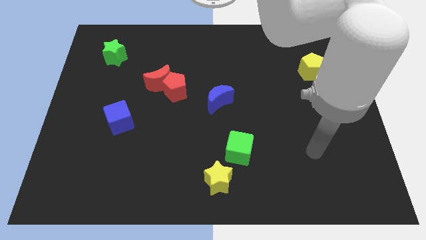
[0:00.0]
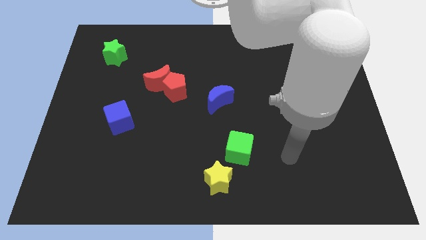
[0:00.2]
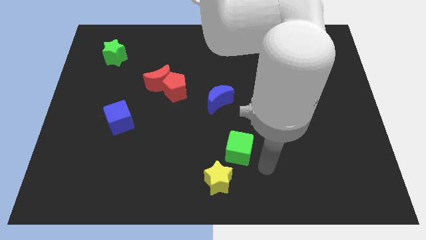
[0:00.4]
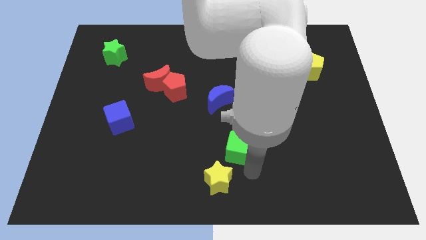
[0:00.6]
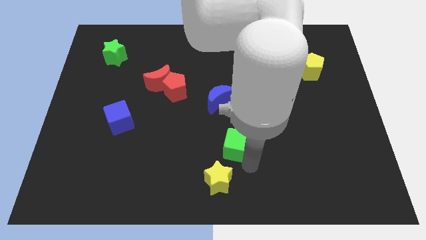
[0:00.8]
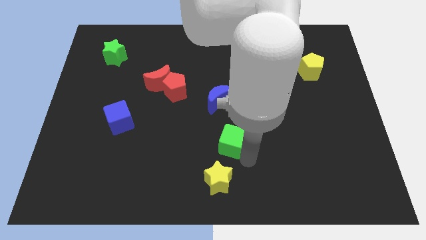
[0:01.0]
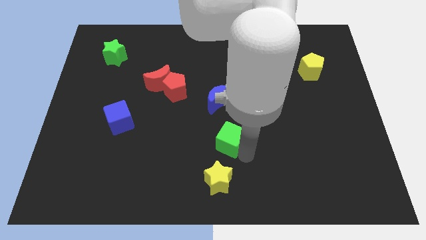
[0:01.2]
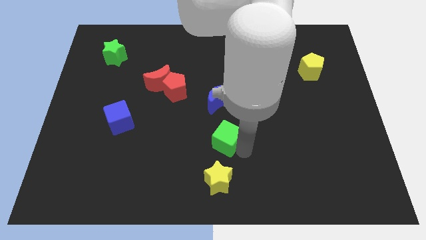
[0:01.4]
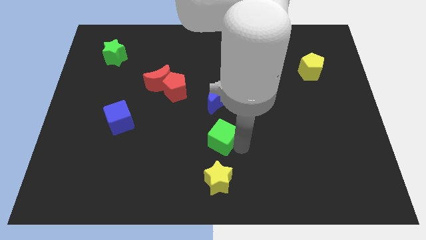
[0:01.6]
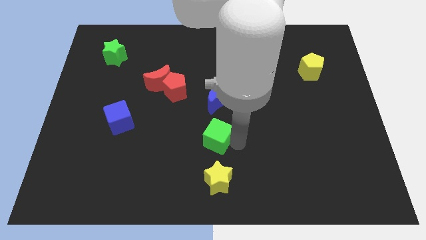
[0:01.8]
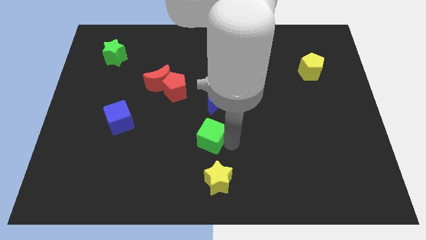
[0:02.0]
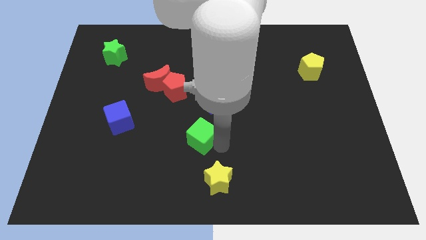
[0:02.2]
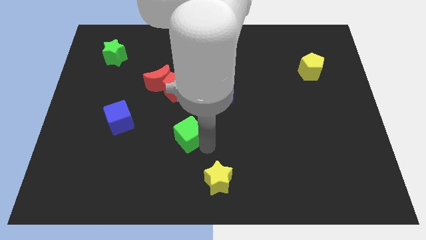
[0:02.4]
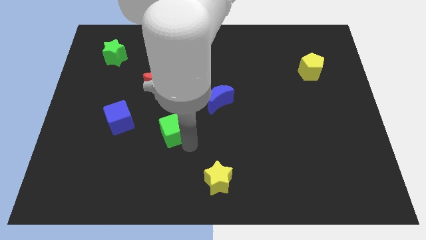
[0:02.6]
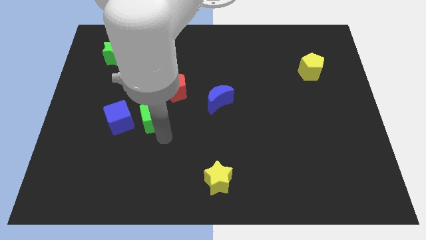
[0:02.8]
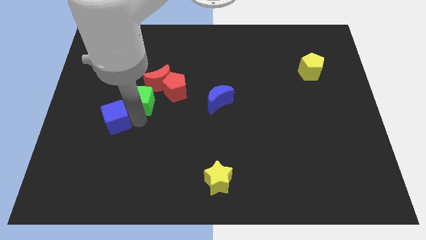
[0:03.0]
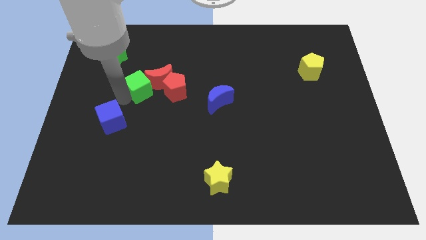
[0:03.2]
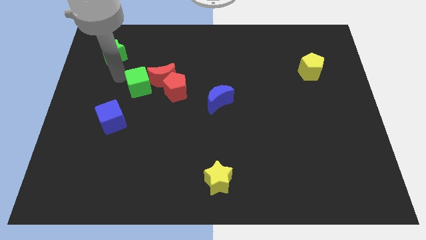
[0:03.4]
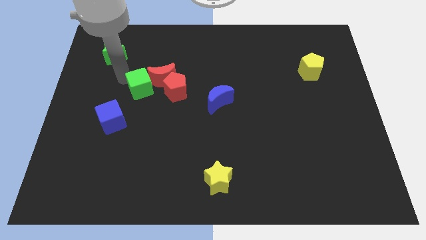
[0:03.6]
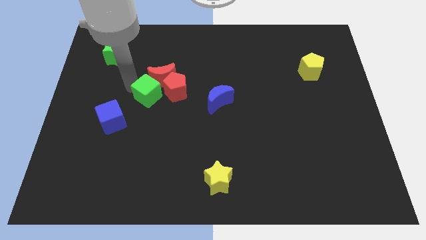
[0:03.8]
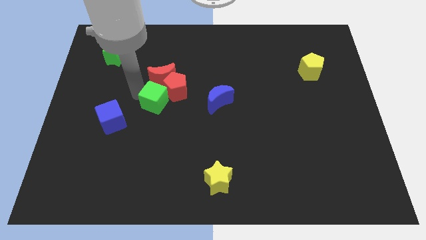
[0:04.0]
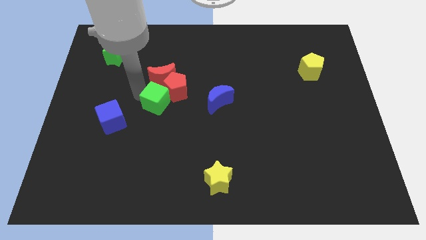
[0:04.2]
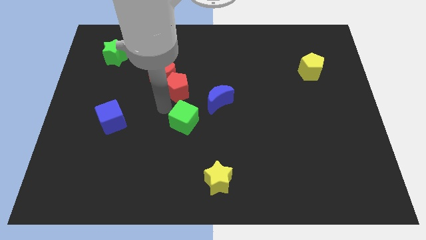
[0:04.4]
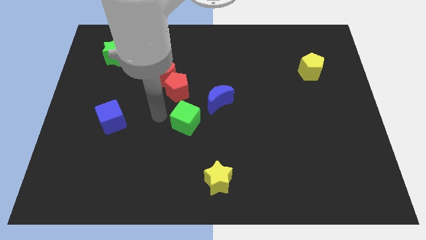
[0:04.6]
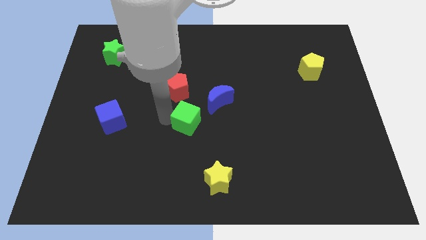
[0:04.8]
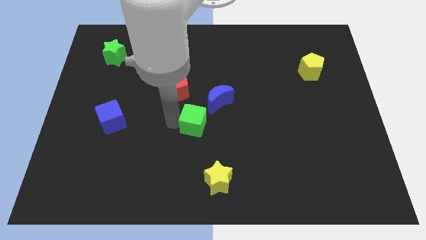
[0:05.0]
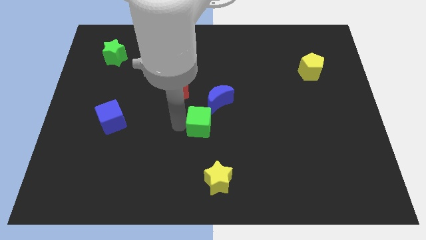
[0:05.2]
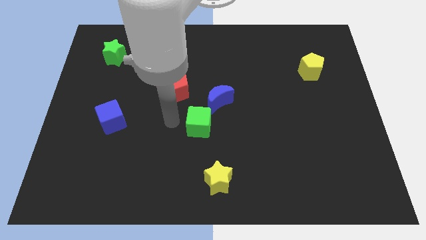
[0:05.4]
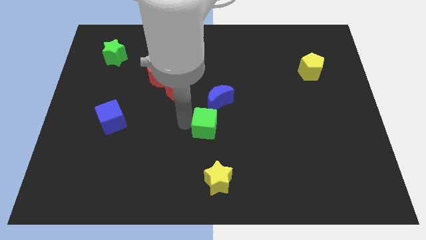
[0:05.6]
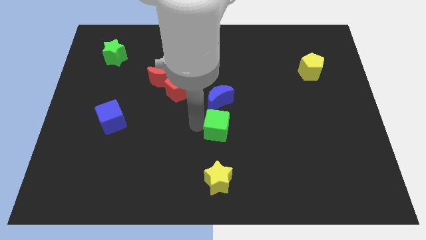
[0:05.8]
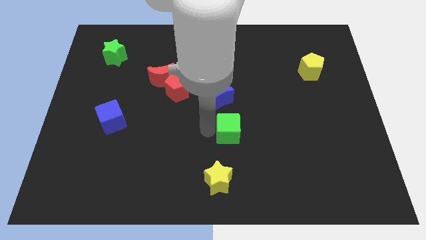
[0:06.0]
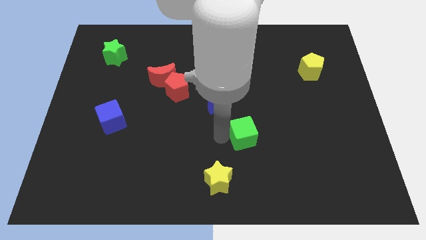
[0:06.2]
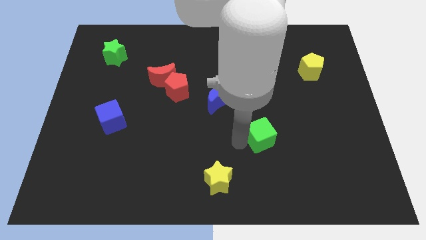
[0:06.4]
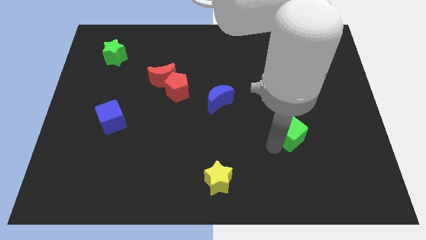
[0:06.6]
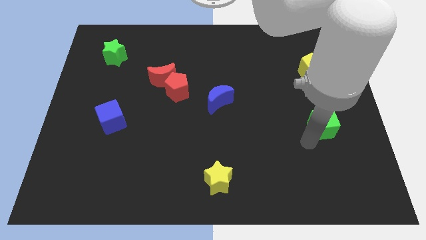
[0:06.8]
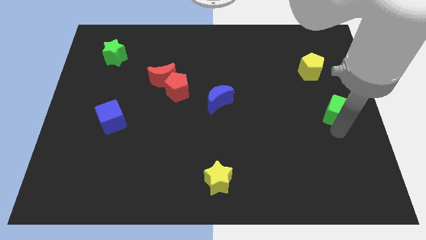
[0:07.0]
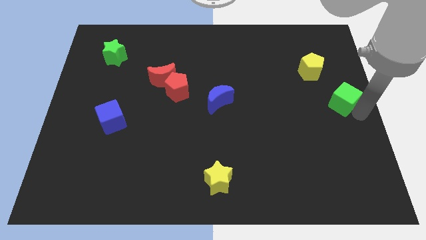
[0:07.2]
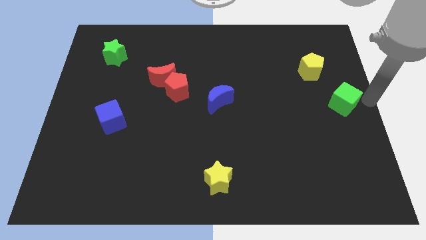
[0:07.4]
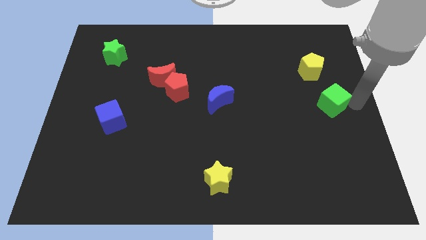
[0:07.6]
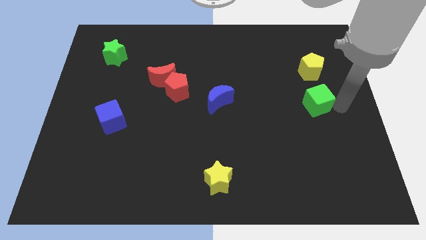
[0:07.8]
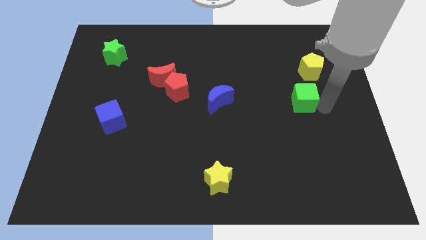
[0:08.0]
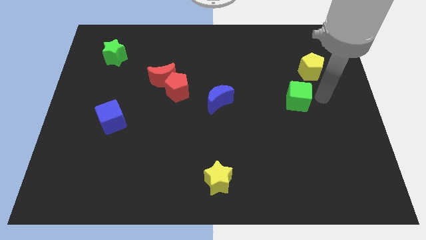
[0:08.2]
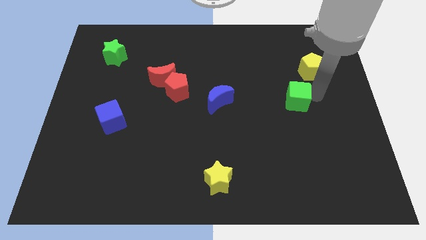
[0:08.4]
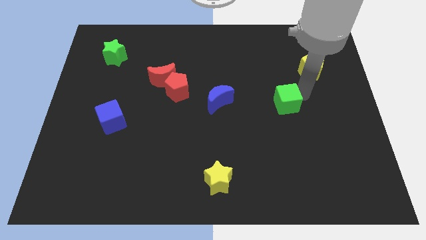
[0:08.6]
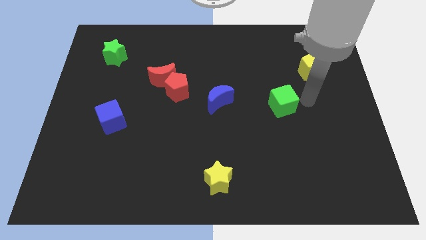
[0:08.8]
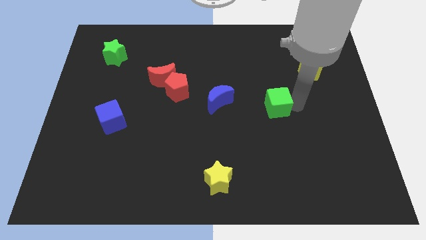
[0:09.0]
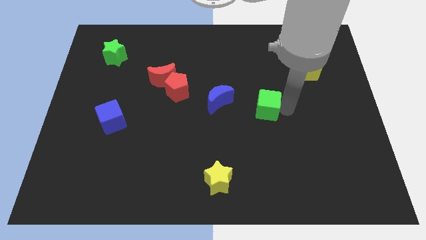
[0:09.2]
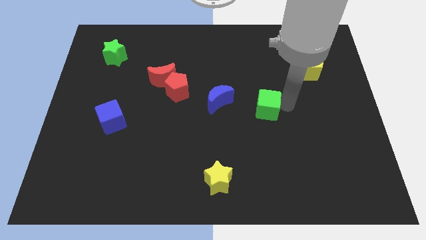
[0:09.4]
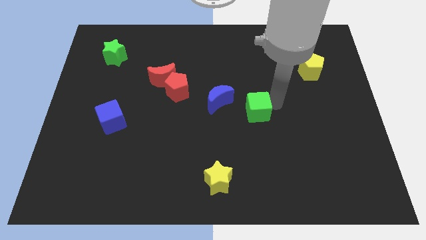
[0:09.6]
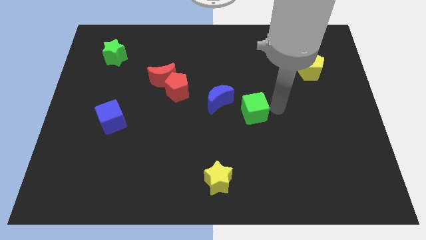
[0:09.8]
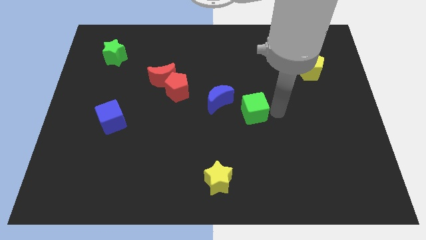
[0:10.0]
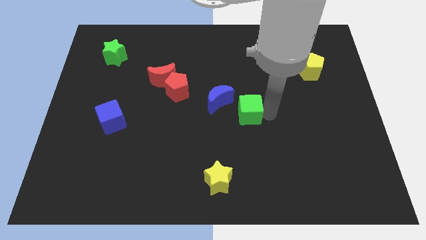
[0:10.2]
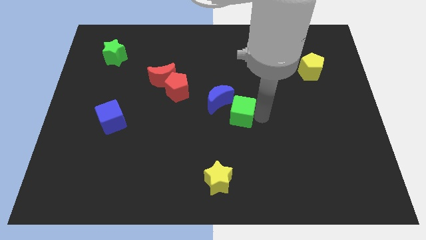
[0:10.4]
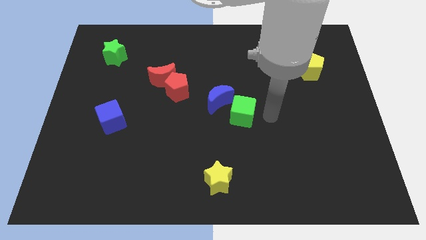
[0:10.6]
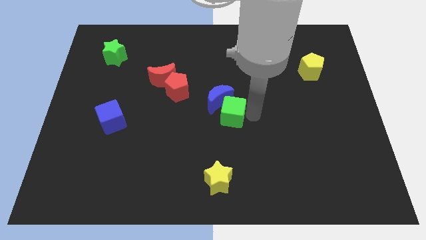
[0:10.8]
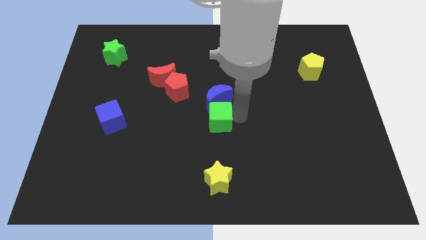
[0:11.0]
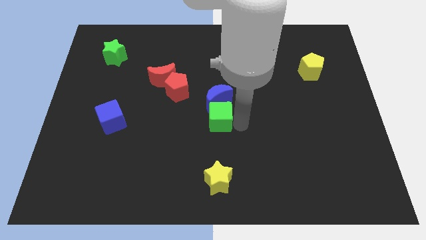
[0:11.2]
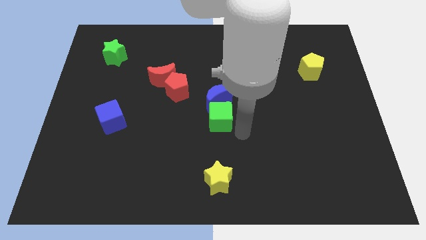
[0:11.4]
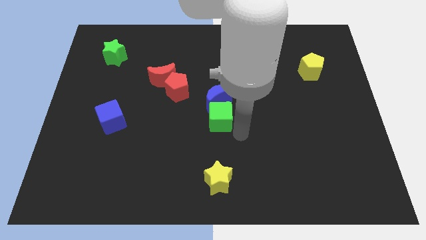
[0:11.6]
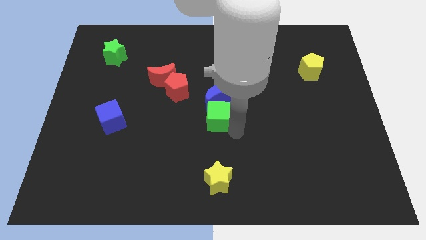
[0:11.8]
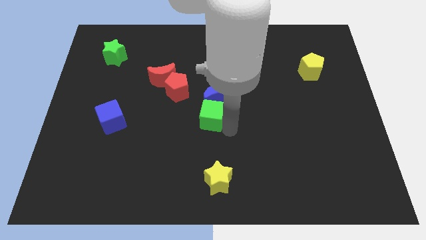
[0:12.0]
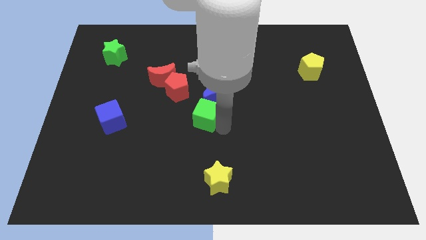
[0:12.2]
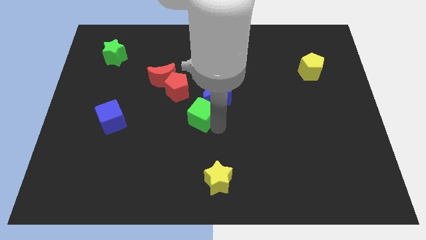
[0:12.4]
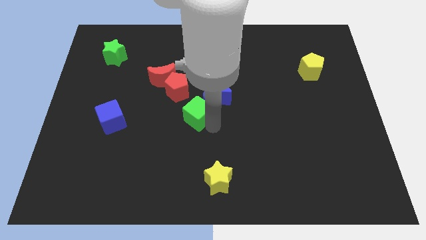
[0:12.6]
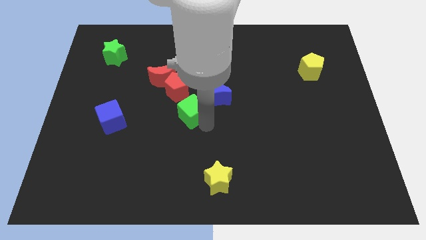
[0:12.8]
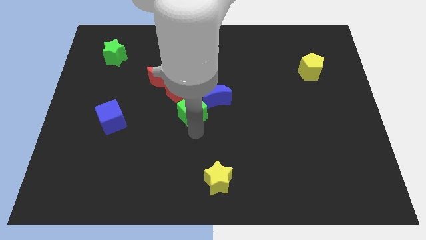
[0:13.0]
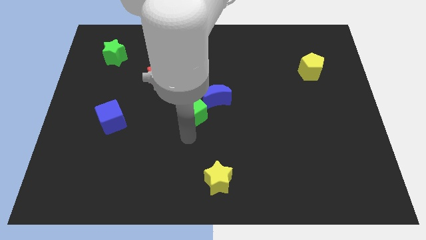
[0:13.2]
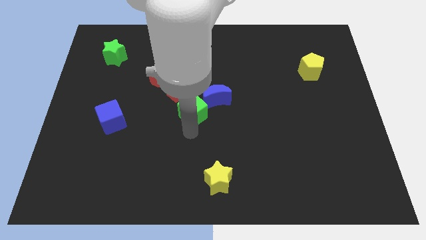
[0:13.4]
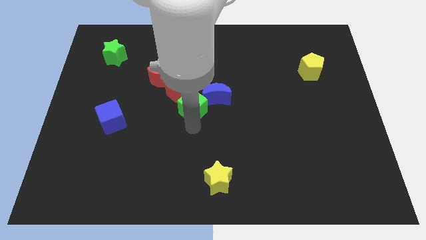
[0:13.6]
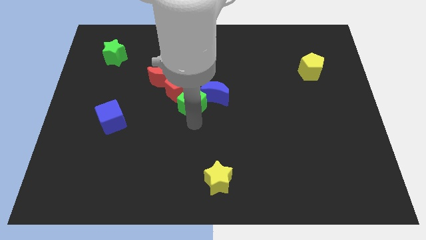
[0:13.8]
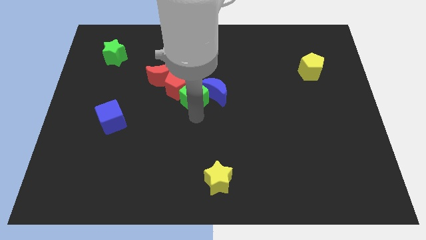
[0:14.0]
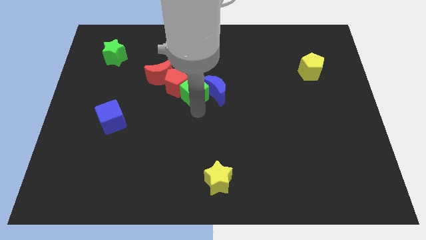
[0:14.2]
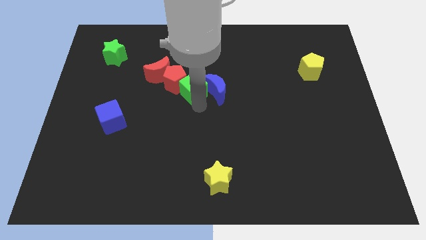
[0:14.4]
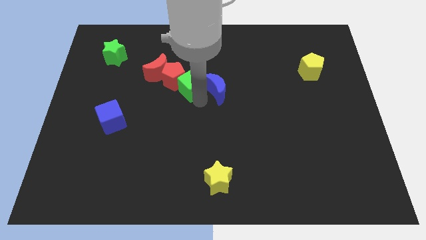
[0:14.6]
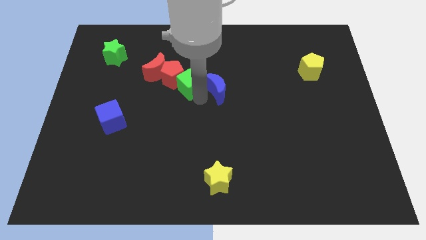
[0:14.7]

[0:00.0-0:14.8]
put the green cube to the right side of the red moon
